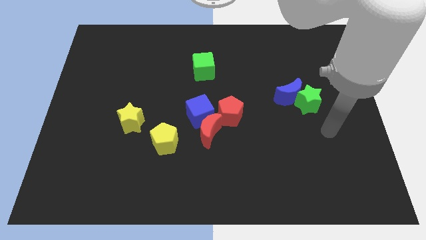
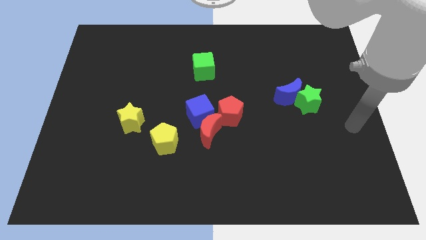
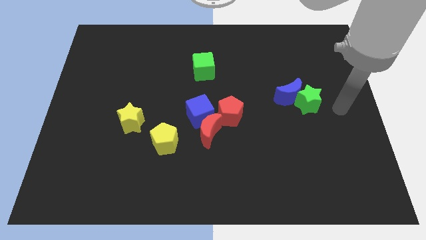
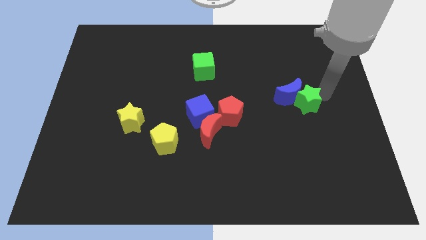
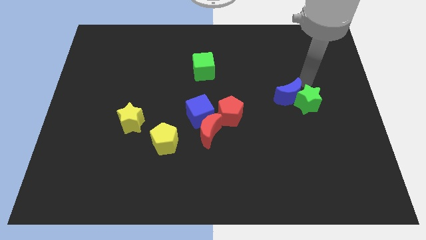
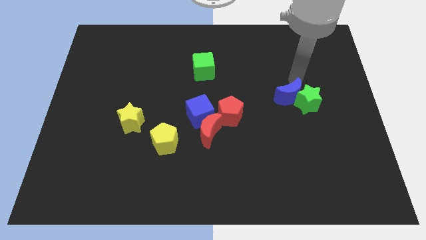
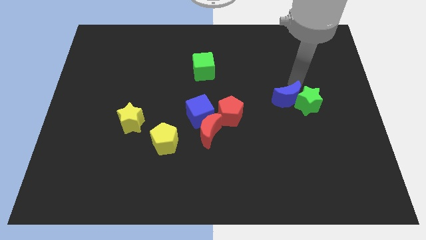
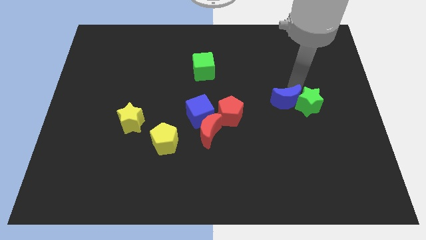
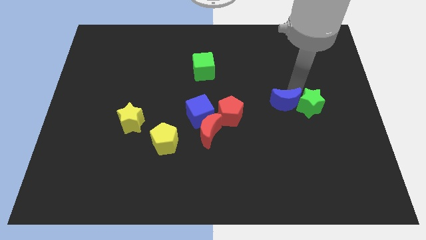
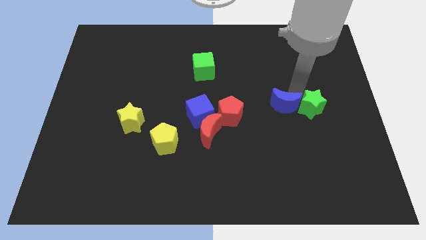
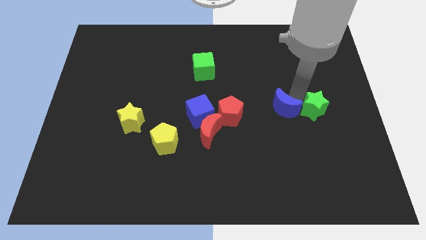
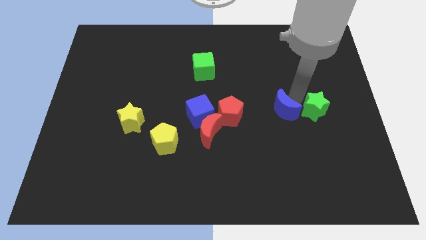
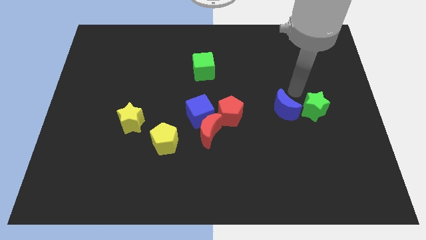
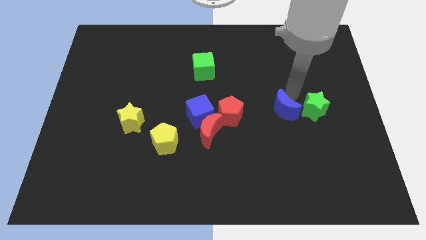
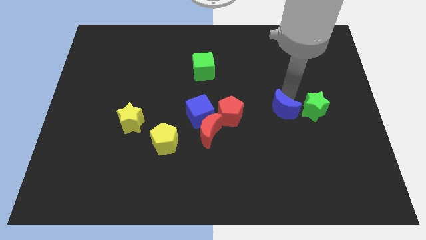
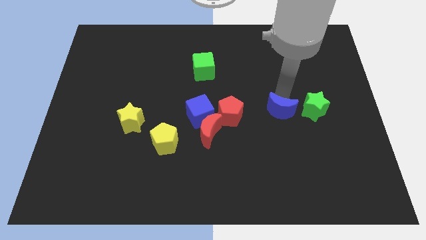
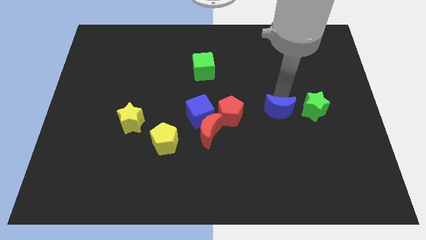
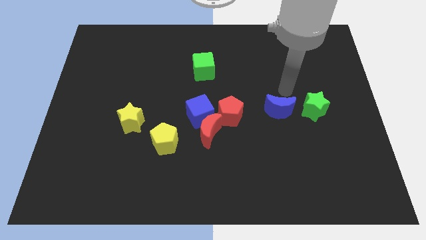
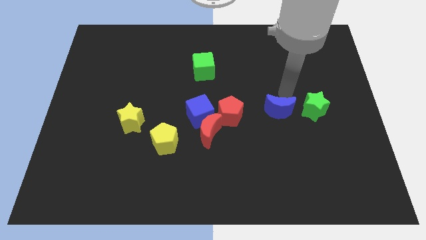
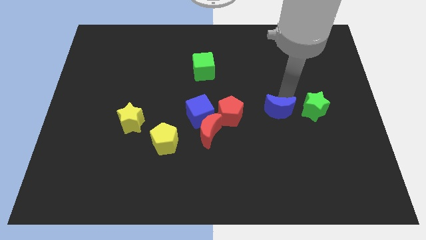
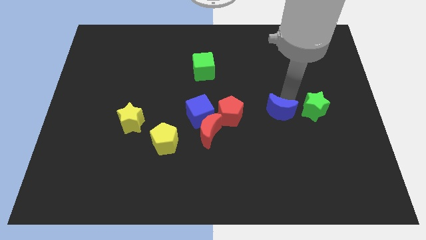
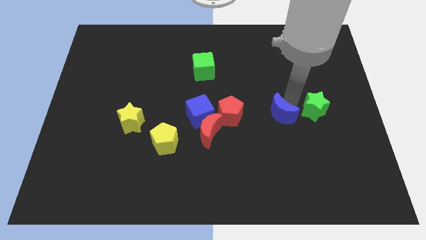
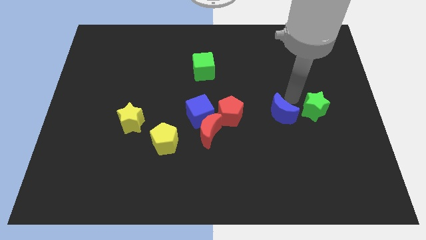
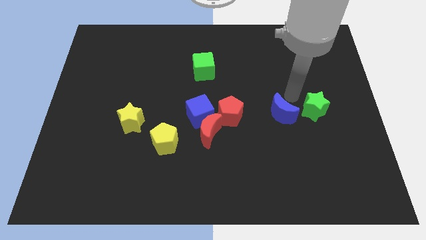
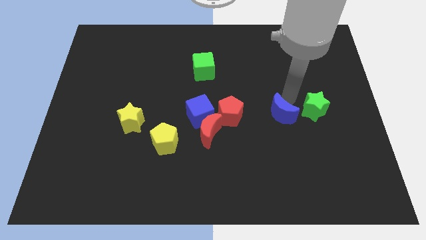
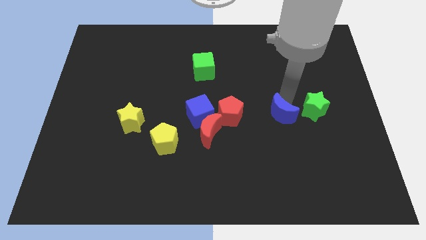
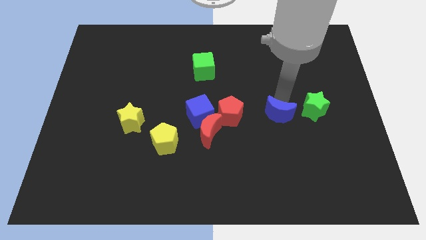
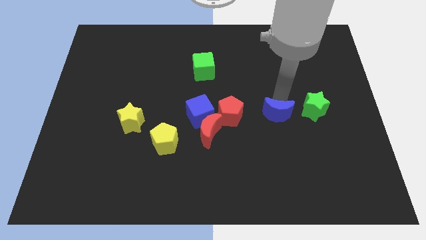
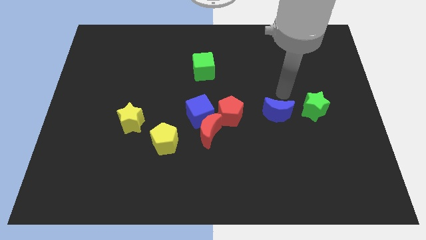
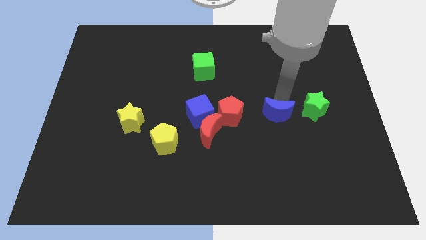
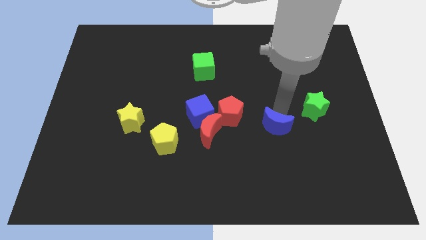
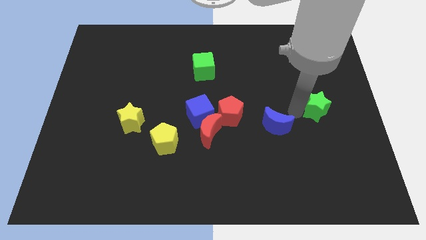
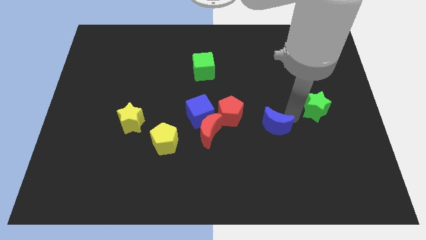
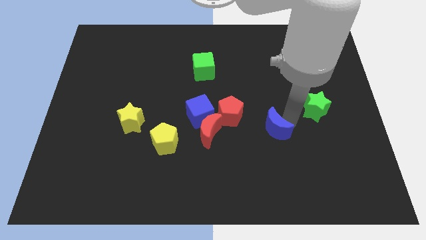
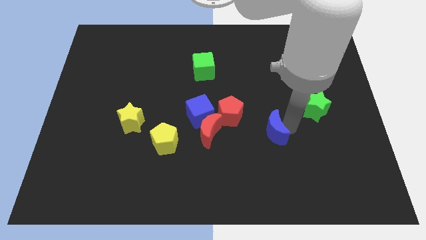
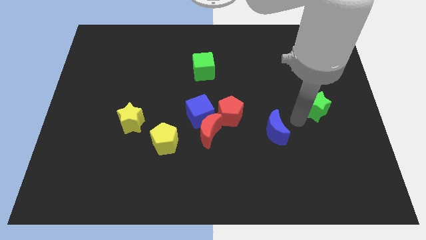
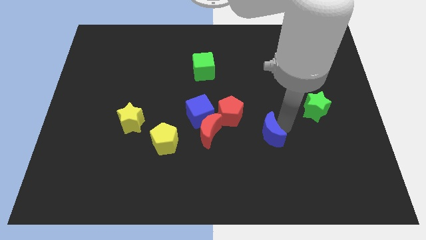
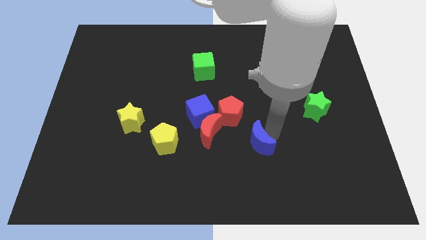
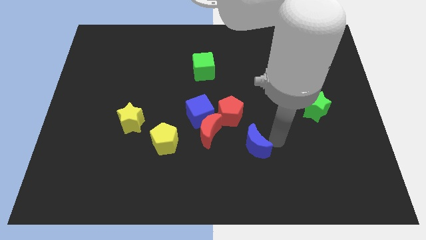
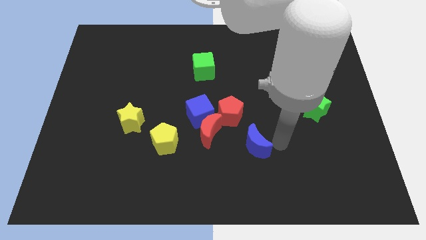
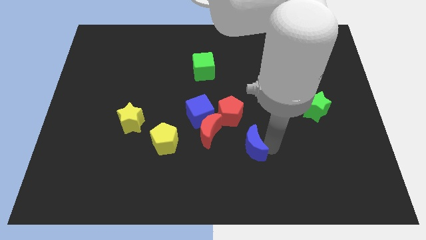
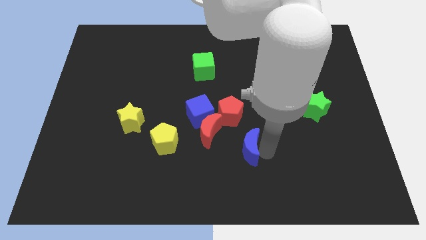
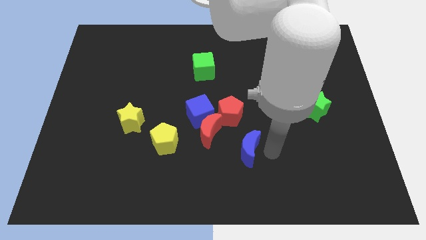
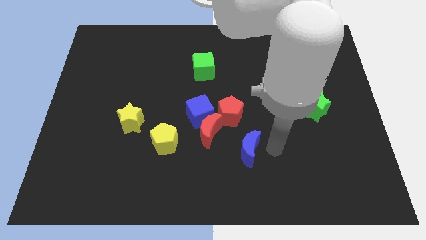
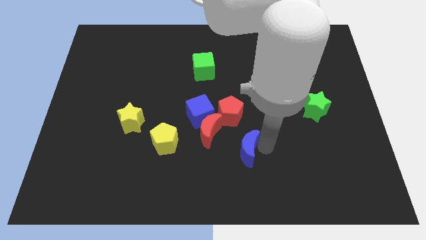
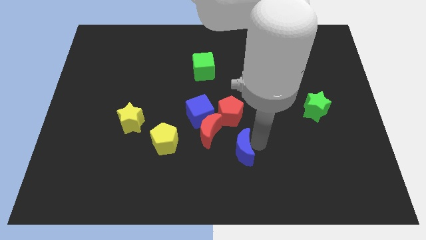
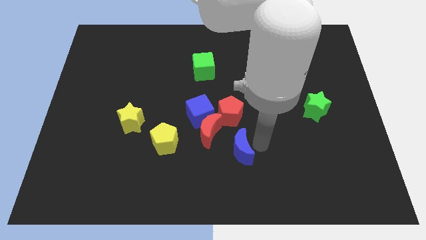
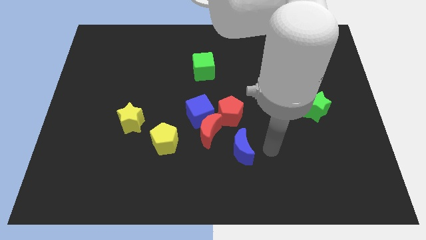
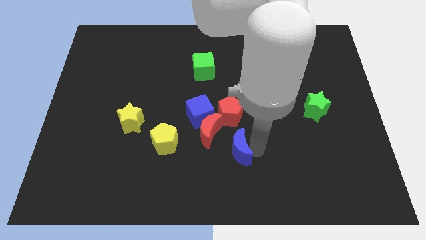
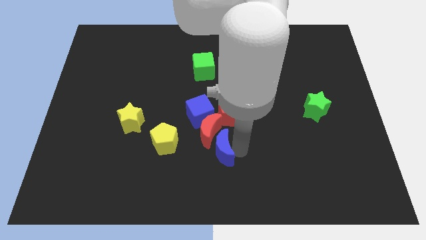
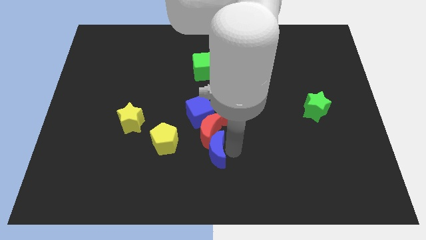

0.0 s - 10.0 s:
push the blue moon to the bottom left side of the red moon

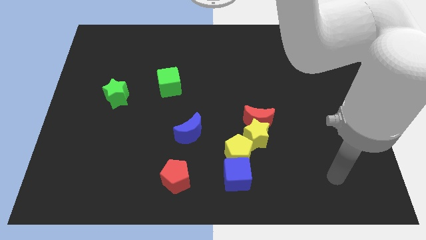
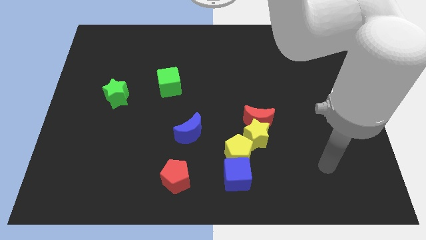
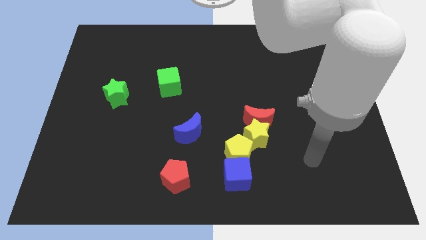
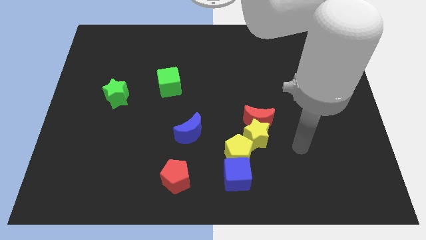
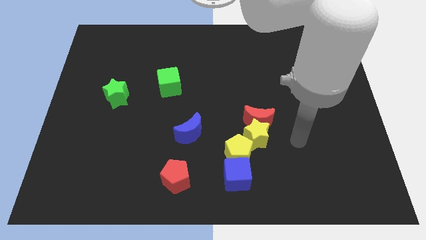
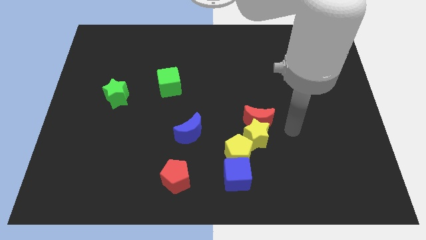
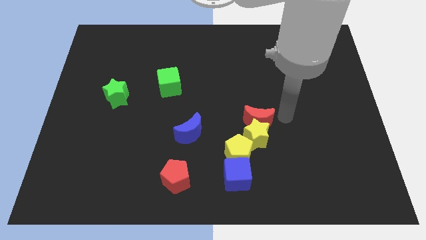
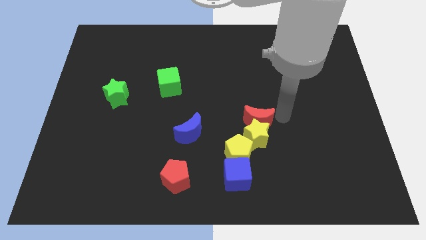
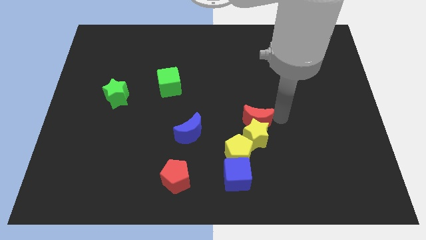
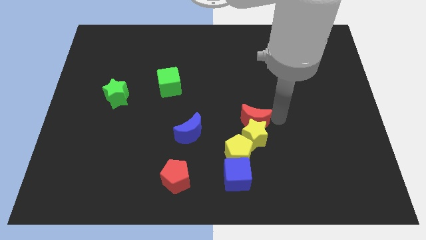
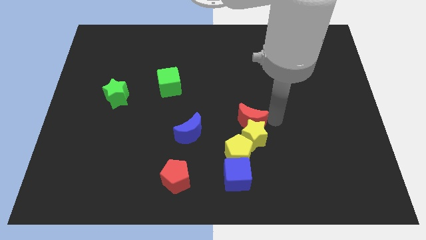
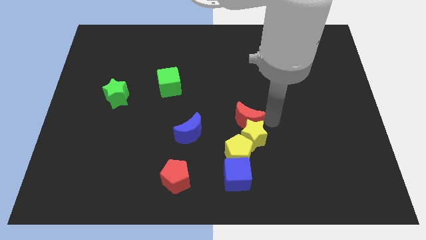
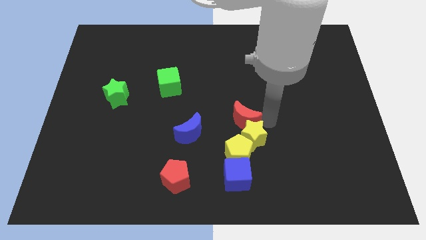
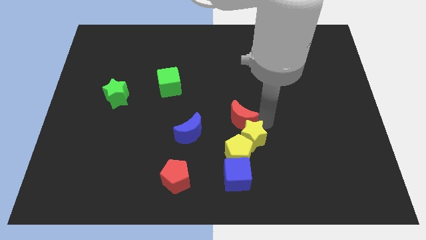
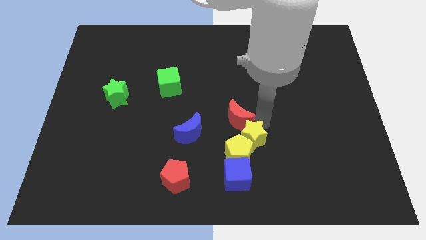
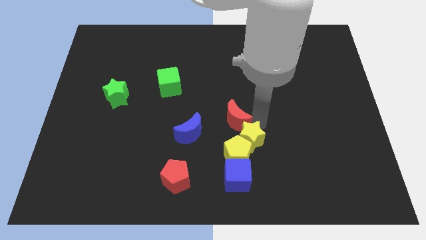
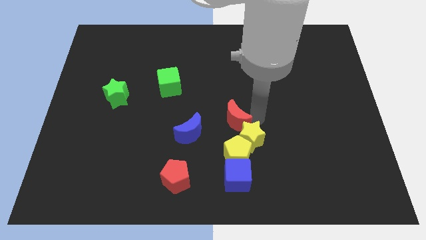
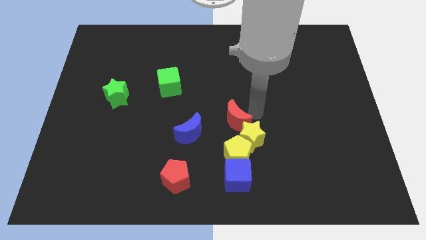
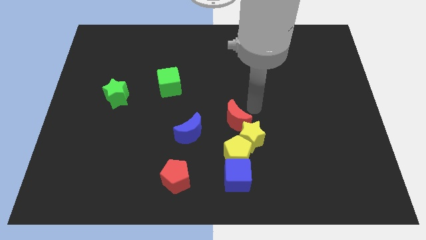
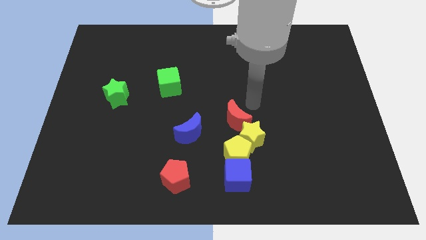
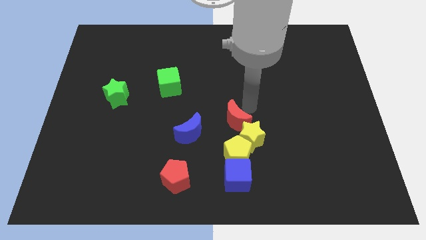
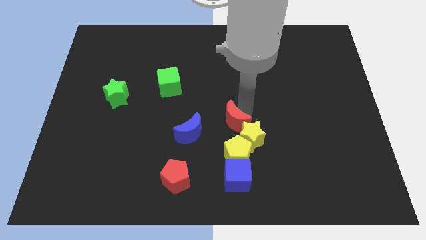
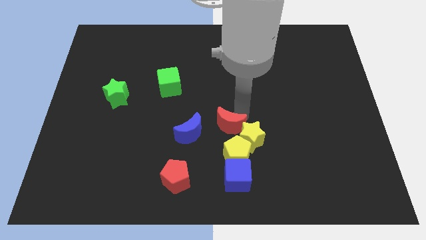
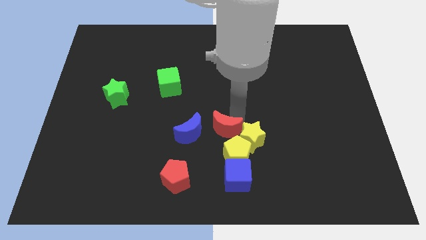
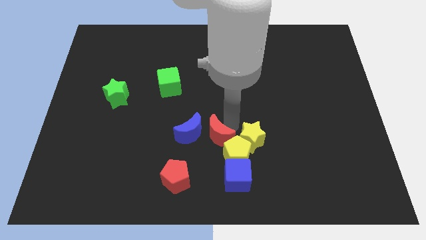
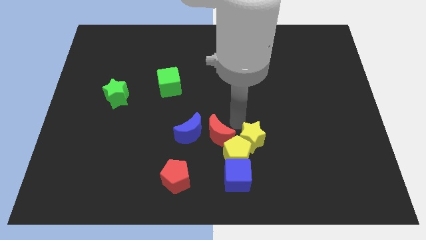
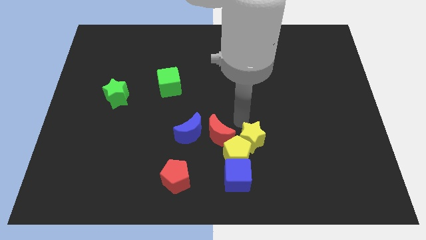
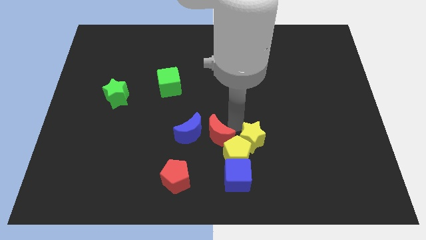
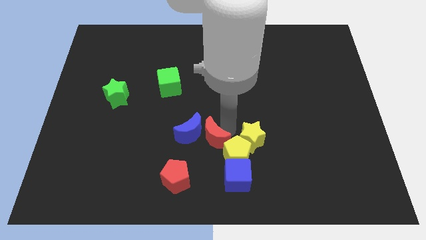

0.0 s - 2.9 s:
push the red moon just left of the yellow pentagon
